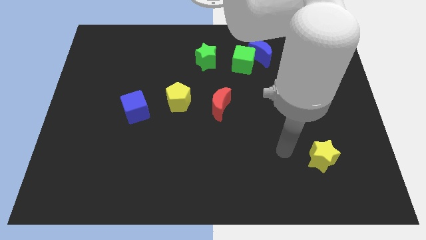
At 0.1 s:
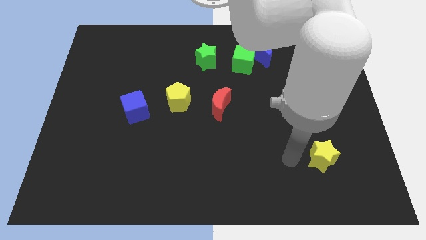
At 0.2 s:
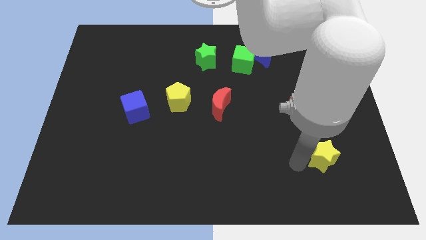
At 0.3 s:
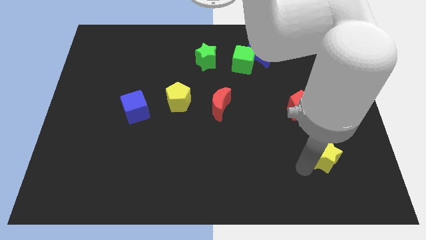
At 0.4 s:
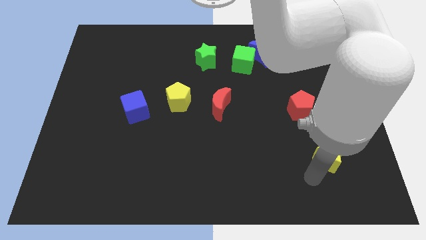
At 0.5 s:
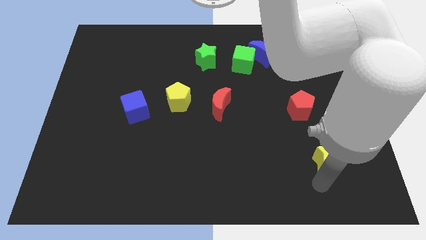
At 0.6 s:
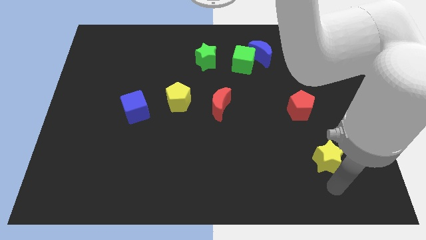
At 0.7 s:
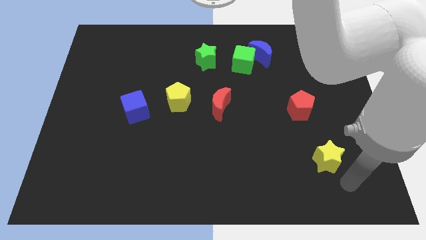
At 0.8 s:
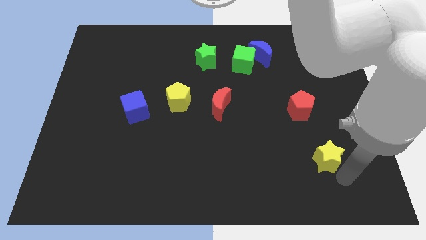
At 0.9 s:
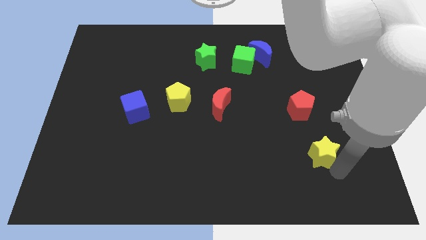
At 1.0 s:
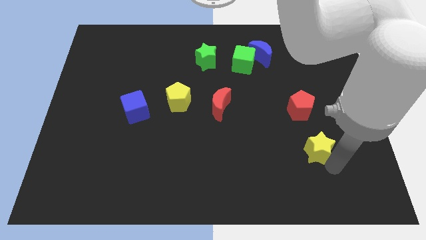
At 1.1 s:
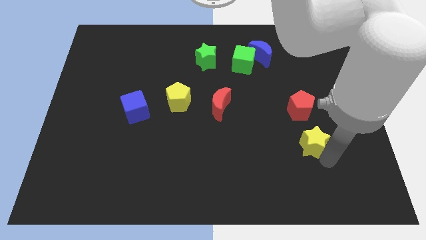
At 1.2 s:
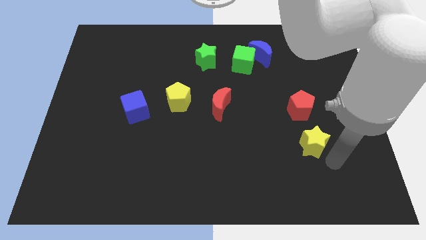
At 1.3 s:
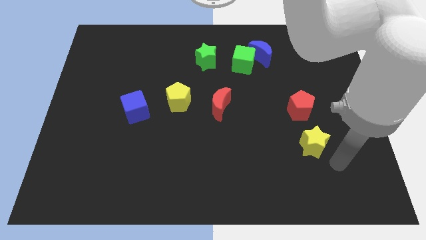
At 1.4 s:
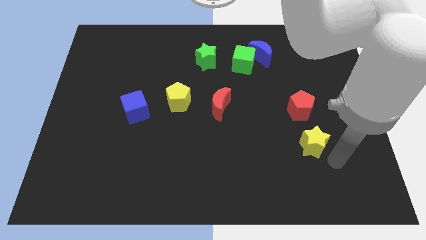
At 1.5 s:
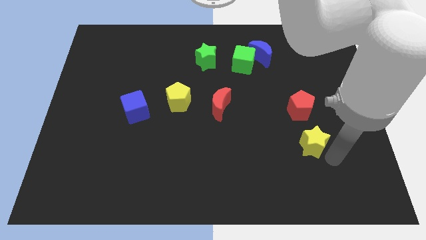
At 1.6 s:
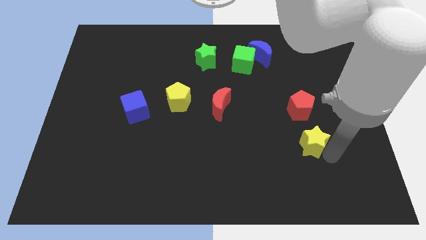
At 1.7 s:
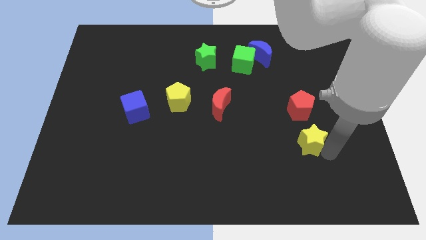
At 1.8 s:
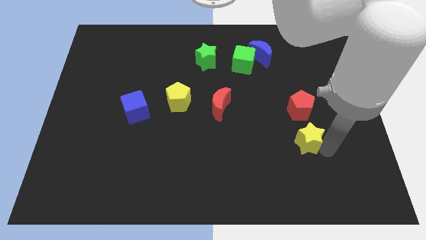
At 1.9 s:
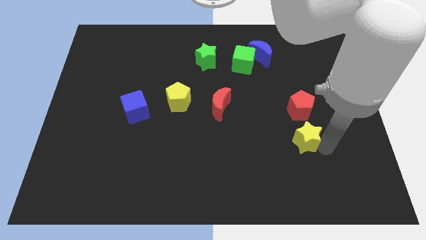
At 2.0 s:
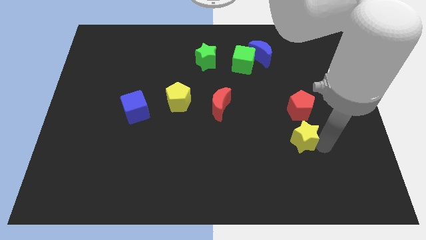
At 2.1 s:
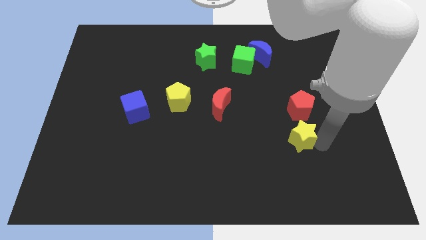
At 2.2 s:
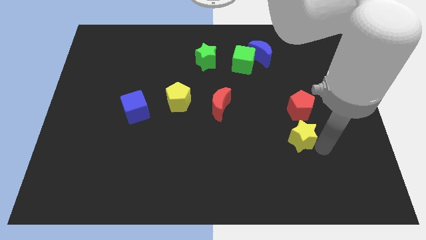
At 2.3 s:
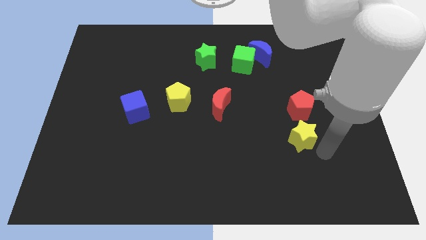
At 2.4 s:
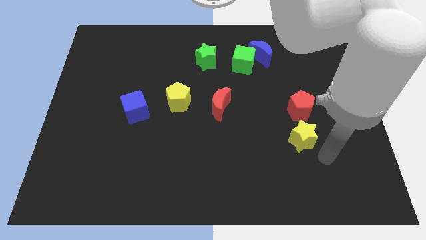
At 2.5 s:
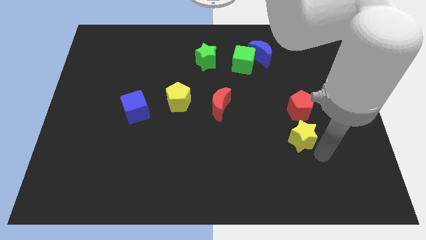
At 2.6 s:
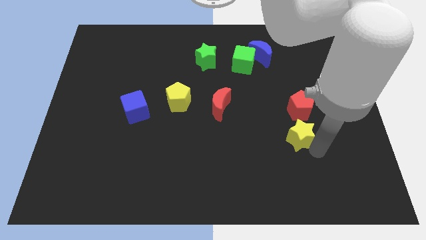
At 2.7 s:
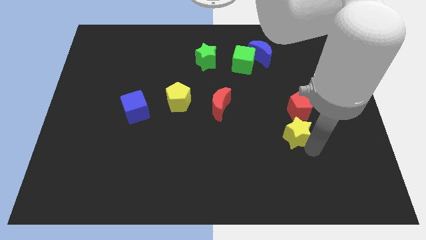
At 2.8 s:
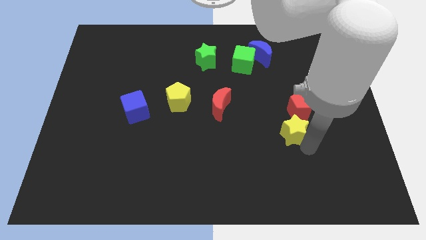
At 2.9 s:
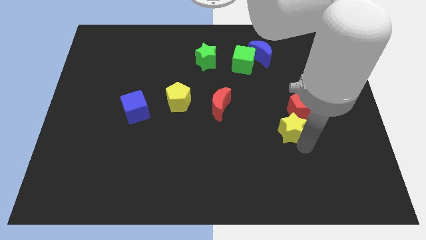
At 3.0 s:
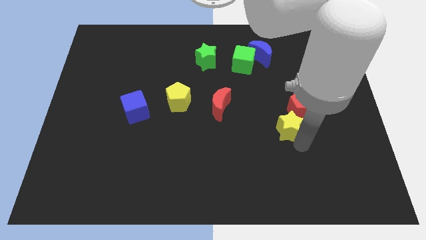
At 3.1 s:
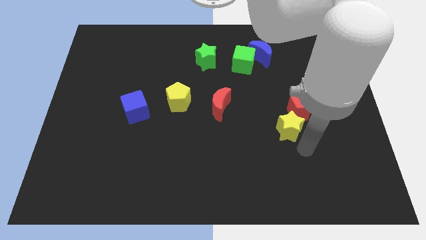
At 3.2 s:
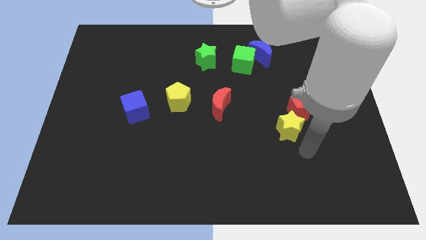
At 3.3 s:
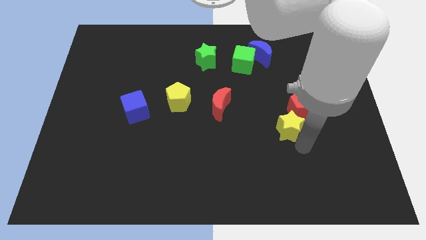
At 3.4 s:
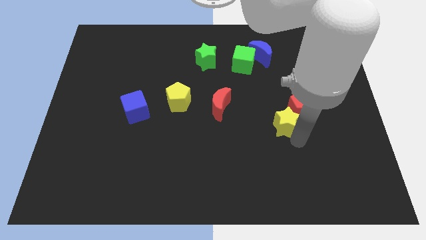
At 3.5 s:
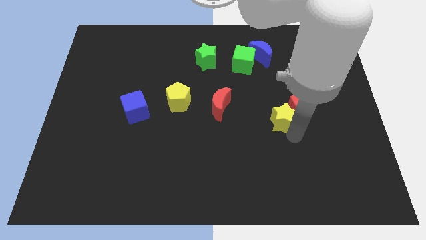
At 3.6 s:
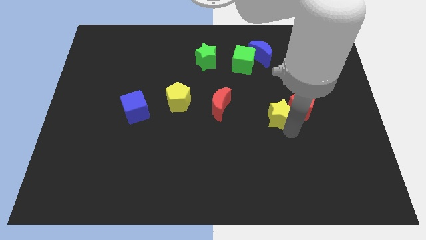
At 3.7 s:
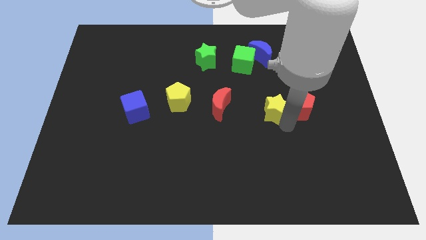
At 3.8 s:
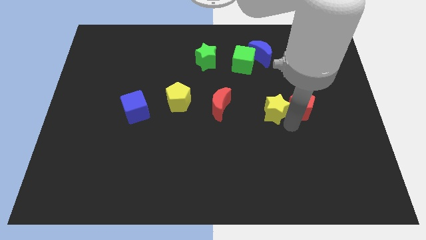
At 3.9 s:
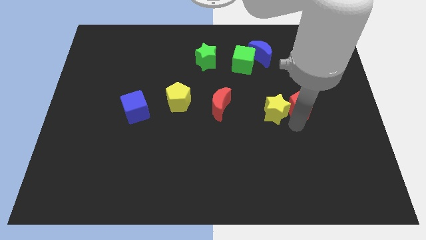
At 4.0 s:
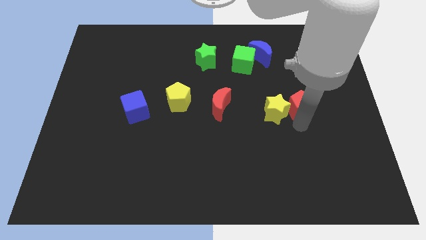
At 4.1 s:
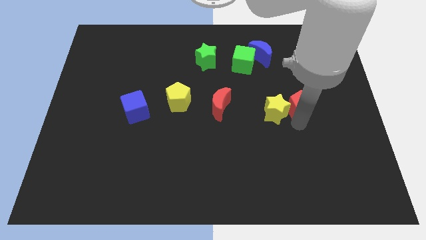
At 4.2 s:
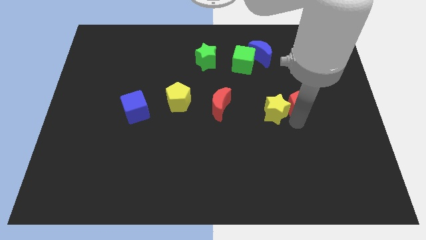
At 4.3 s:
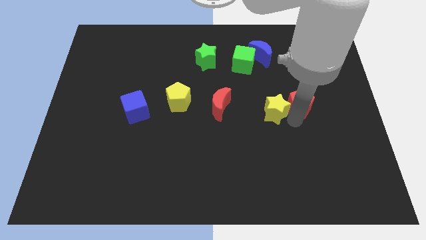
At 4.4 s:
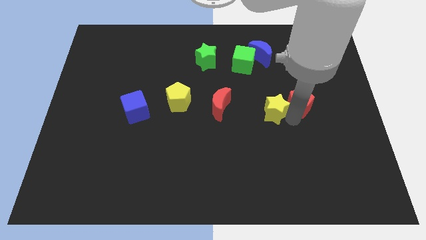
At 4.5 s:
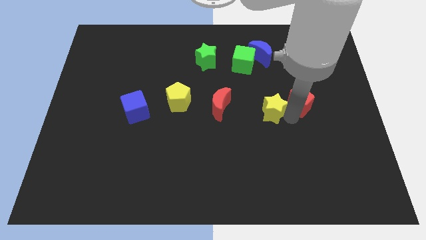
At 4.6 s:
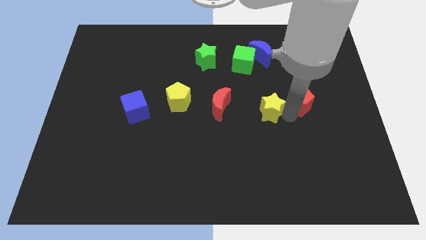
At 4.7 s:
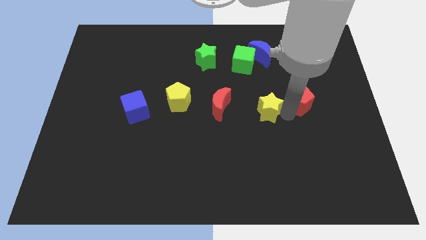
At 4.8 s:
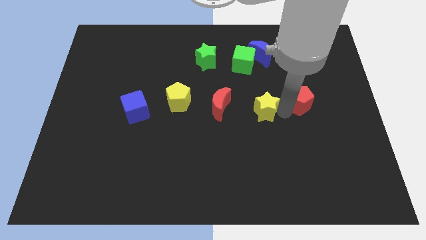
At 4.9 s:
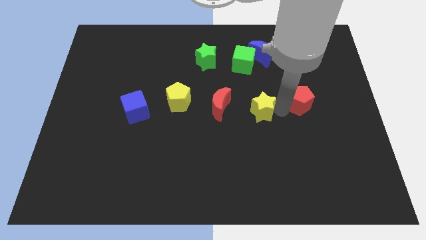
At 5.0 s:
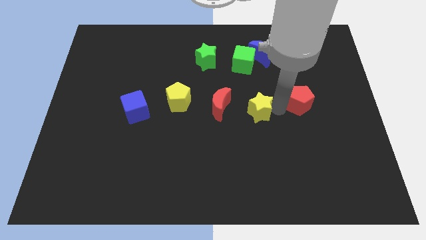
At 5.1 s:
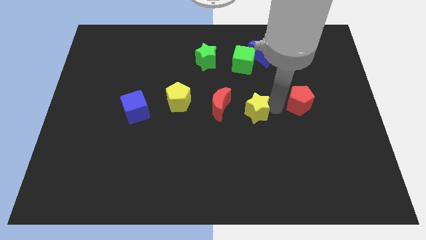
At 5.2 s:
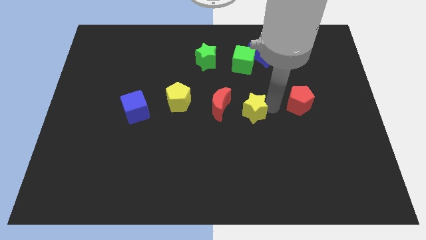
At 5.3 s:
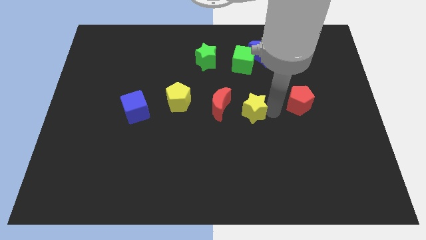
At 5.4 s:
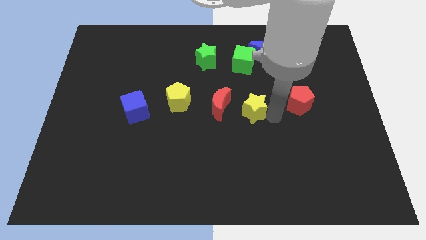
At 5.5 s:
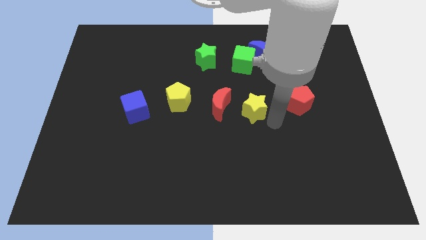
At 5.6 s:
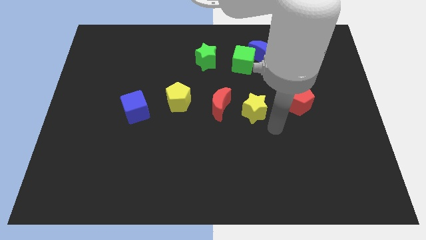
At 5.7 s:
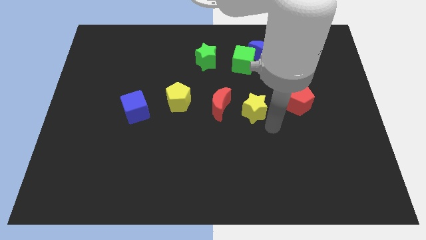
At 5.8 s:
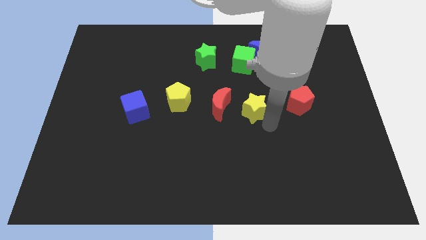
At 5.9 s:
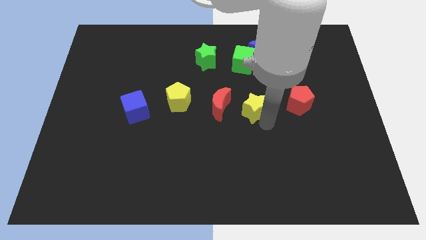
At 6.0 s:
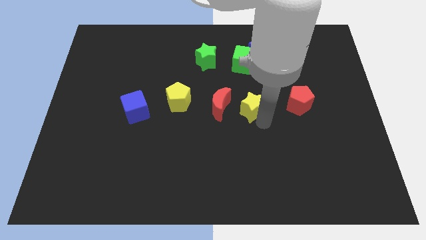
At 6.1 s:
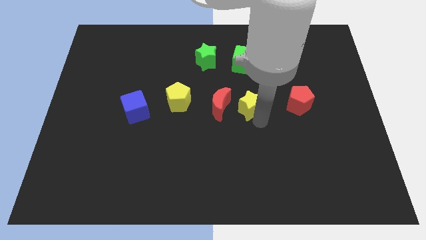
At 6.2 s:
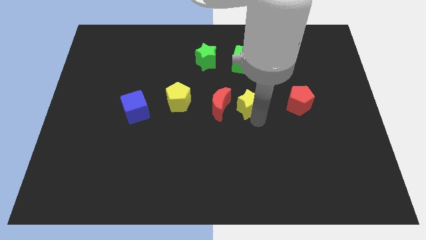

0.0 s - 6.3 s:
push the yellow star up and then to the left

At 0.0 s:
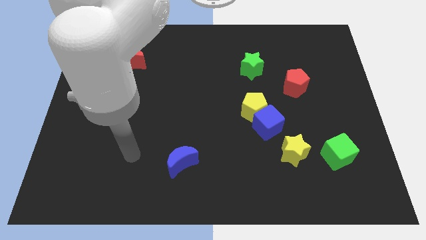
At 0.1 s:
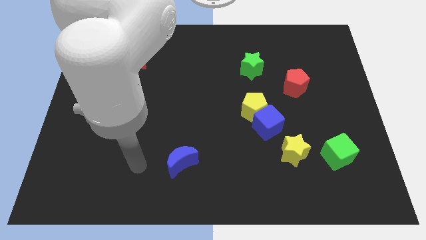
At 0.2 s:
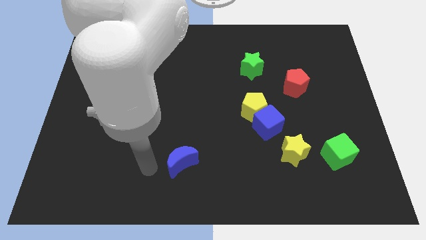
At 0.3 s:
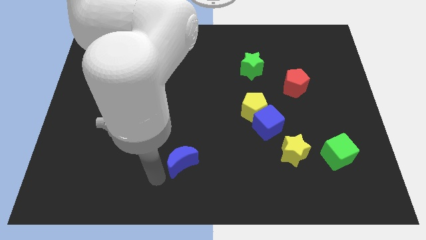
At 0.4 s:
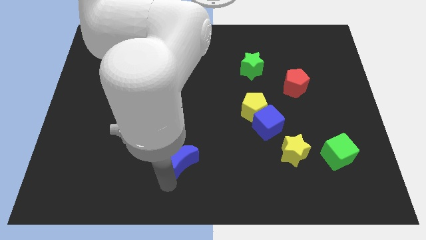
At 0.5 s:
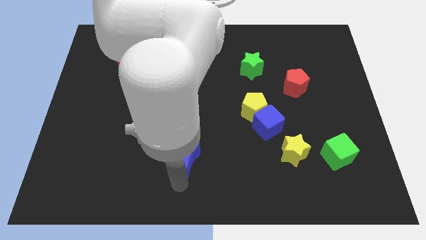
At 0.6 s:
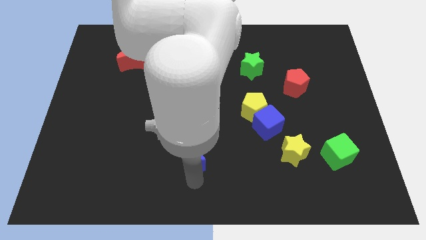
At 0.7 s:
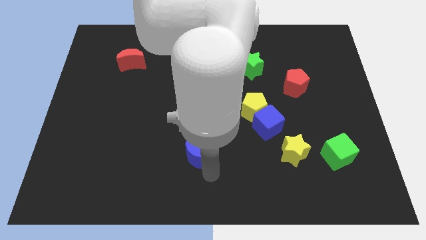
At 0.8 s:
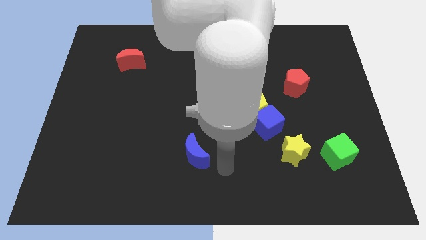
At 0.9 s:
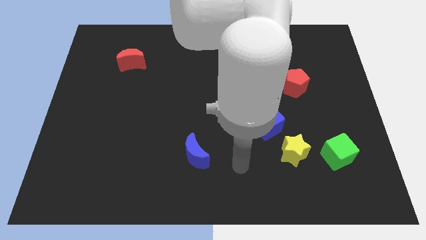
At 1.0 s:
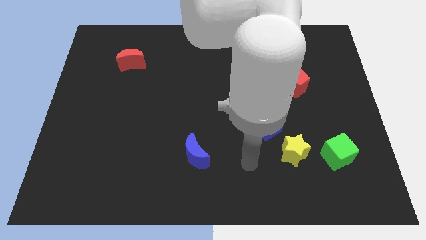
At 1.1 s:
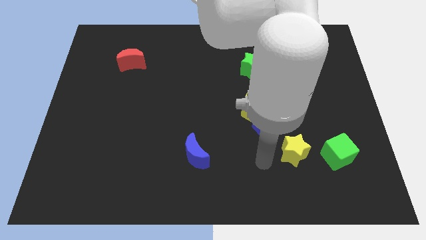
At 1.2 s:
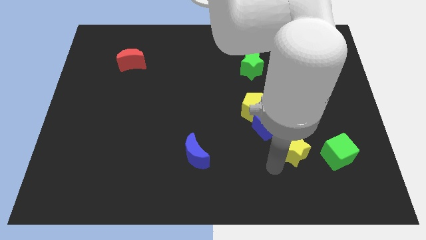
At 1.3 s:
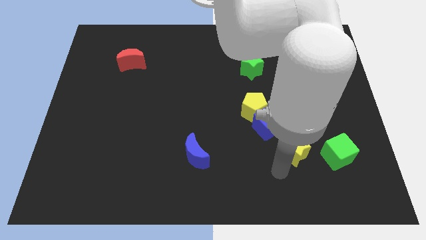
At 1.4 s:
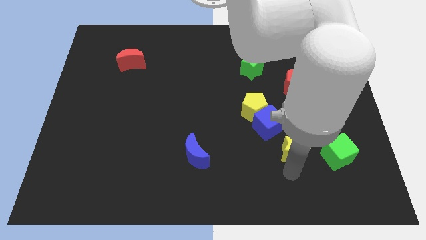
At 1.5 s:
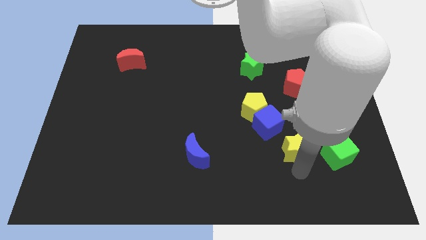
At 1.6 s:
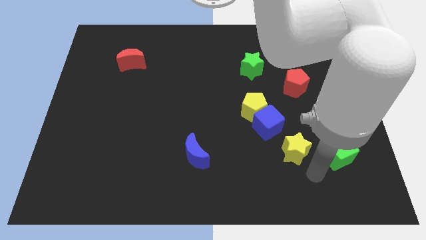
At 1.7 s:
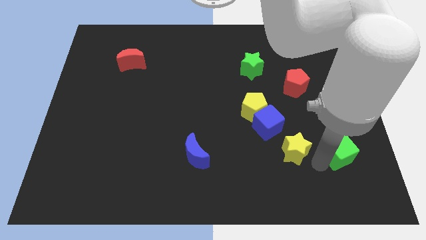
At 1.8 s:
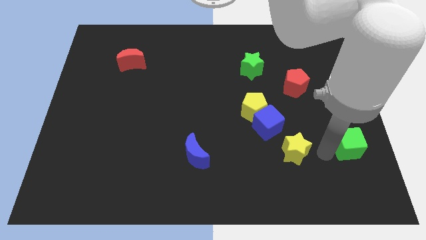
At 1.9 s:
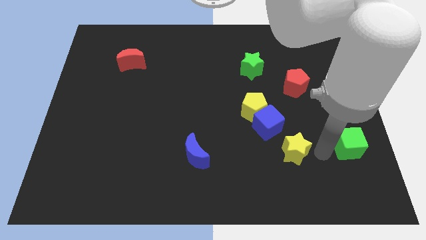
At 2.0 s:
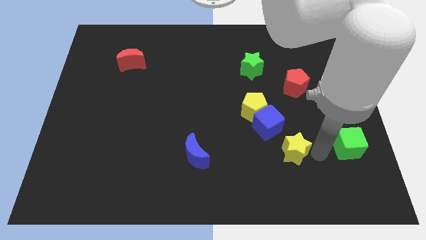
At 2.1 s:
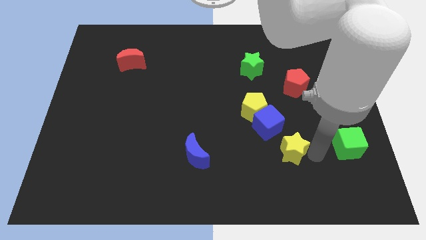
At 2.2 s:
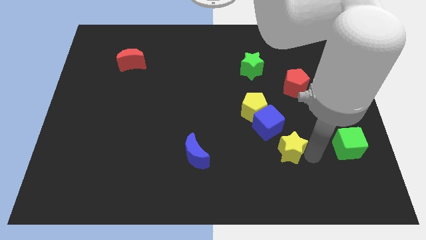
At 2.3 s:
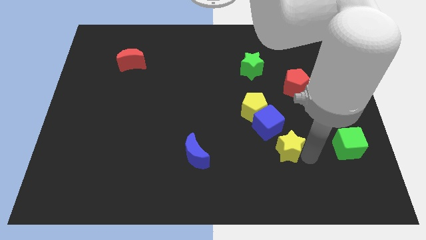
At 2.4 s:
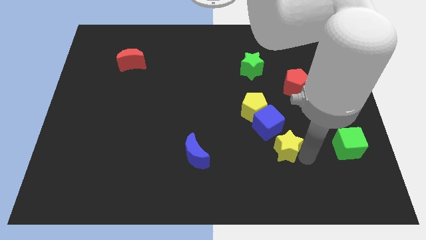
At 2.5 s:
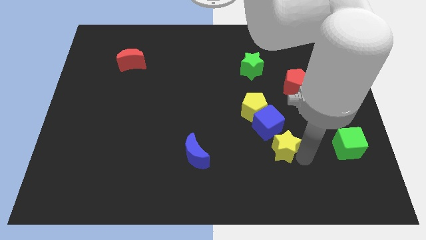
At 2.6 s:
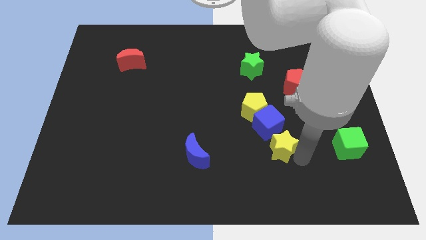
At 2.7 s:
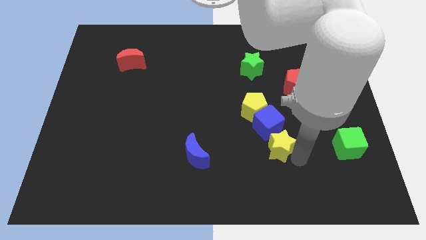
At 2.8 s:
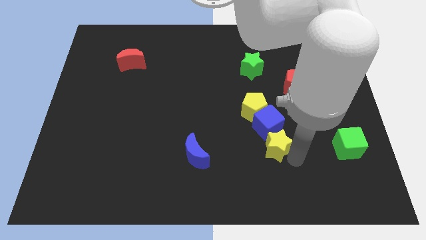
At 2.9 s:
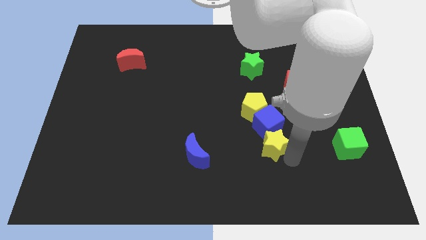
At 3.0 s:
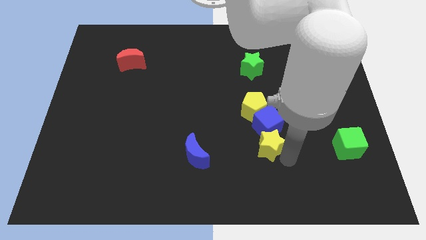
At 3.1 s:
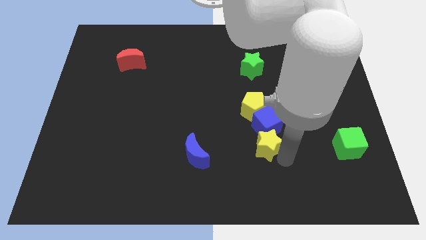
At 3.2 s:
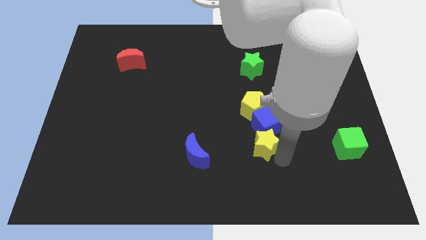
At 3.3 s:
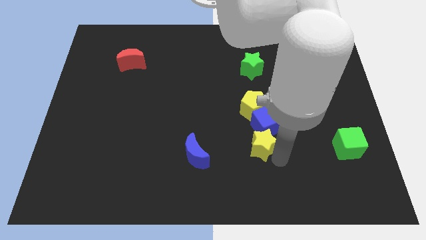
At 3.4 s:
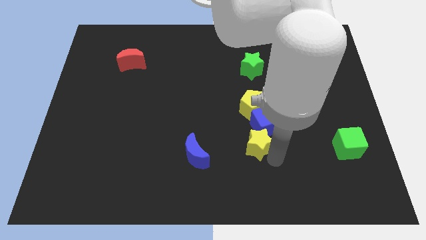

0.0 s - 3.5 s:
slightly move the yellow star to the left
